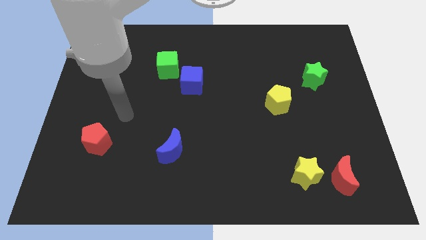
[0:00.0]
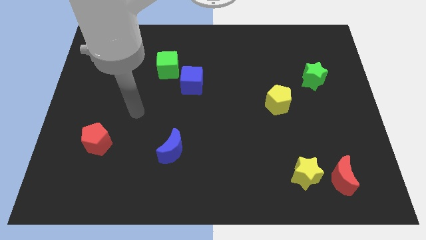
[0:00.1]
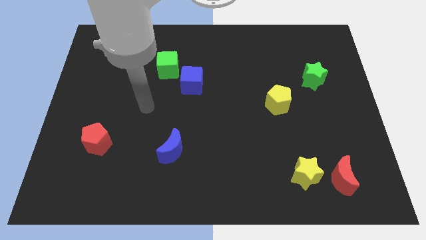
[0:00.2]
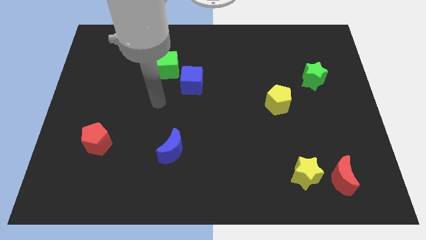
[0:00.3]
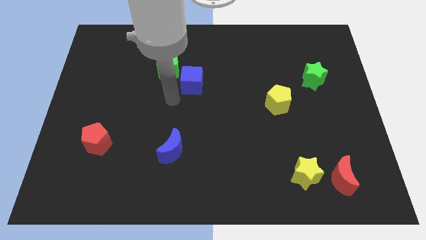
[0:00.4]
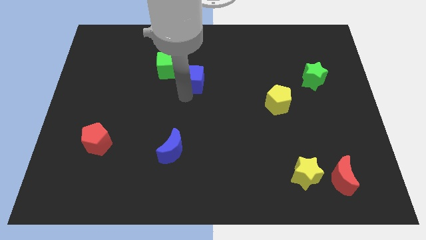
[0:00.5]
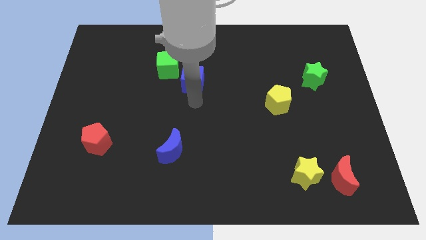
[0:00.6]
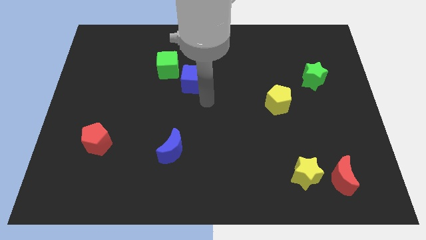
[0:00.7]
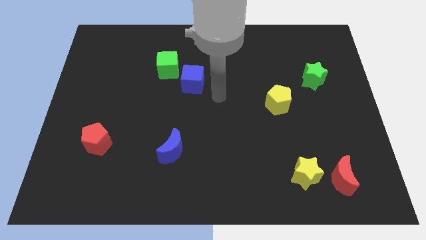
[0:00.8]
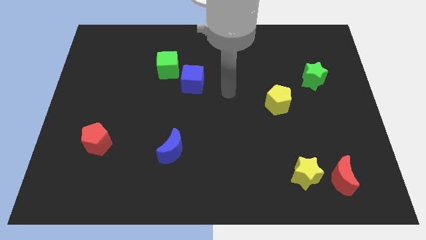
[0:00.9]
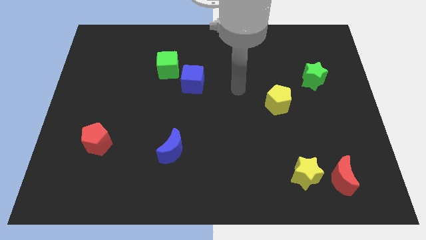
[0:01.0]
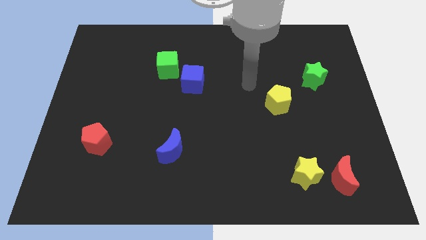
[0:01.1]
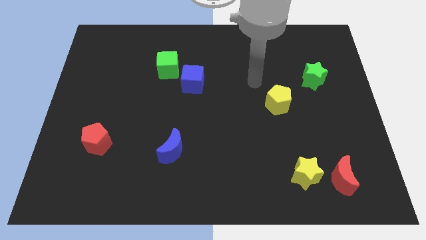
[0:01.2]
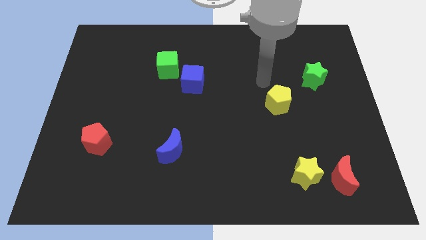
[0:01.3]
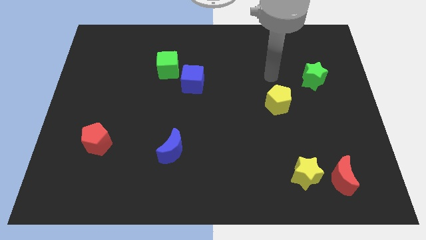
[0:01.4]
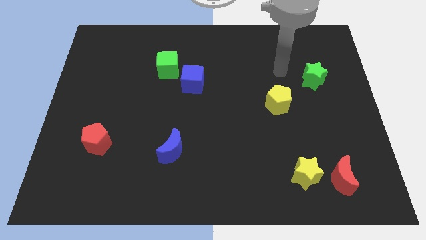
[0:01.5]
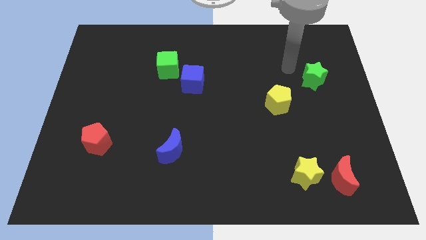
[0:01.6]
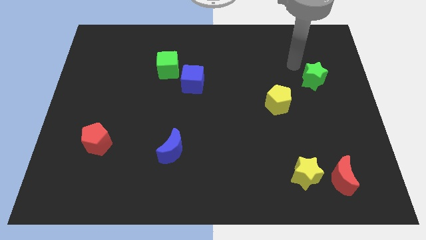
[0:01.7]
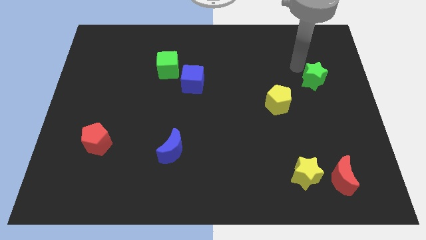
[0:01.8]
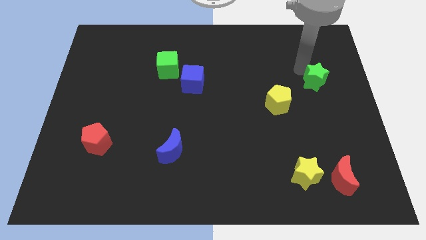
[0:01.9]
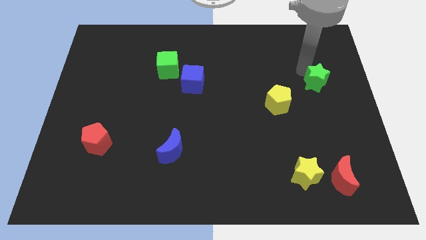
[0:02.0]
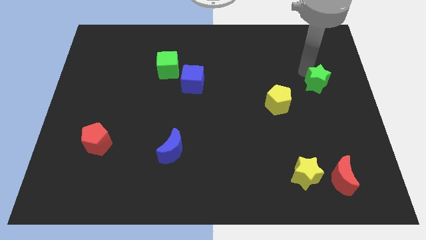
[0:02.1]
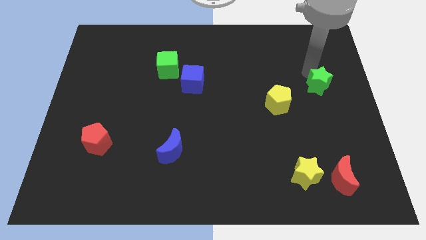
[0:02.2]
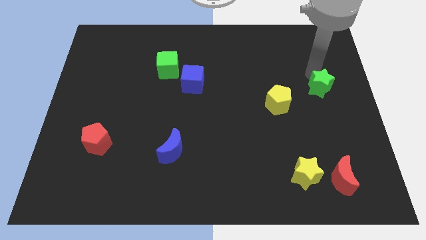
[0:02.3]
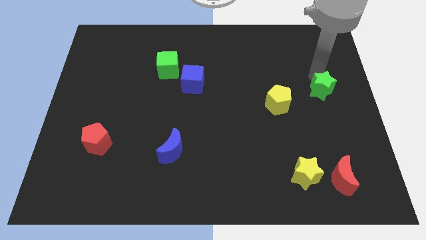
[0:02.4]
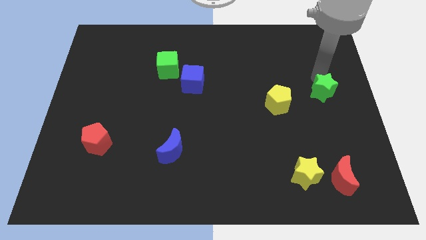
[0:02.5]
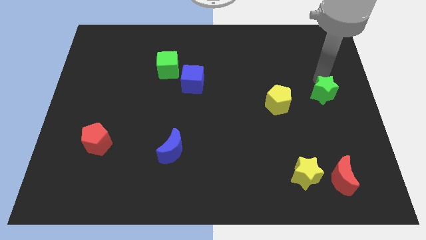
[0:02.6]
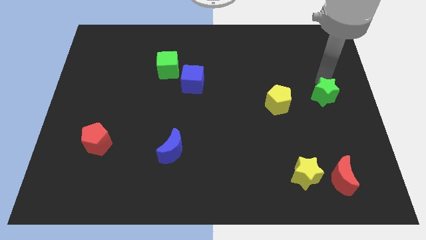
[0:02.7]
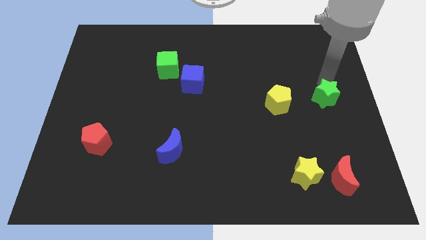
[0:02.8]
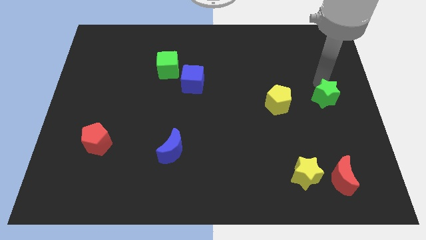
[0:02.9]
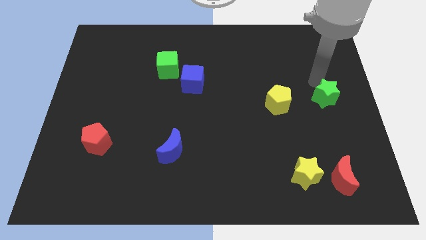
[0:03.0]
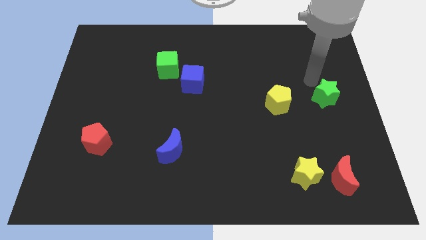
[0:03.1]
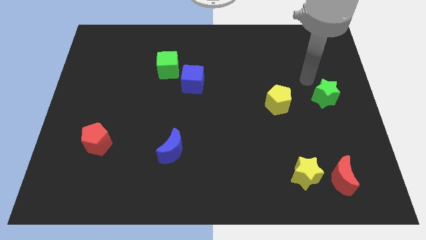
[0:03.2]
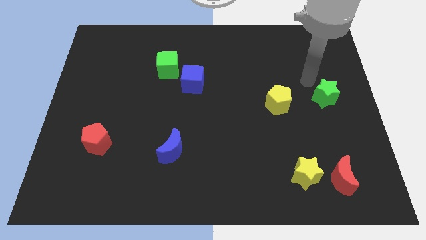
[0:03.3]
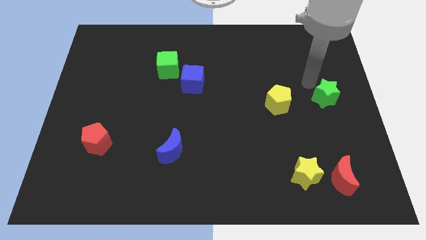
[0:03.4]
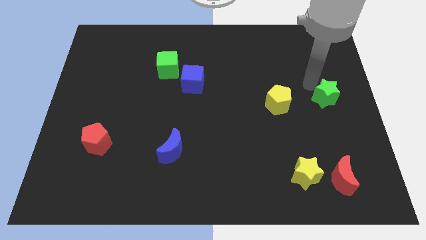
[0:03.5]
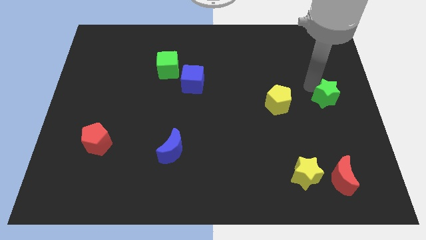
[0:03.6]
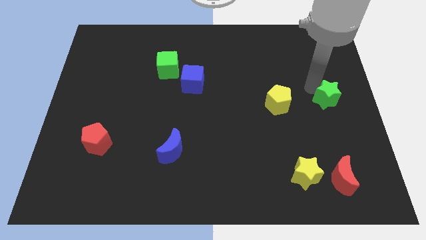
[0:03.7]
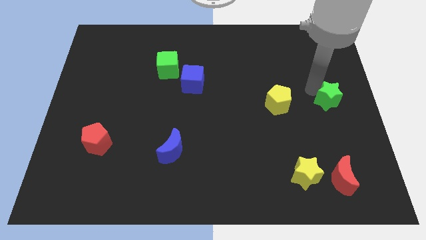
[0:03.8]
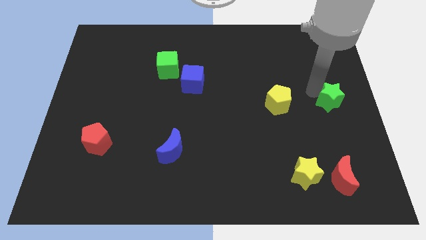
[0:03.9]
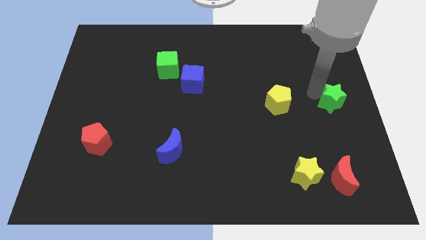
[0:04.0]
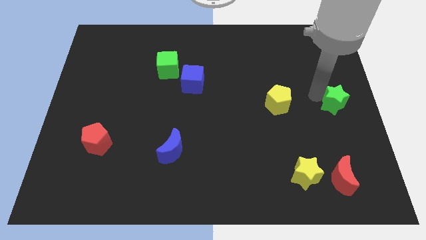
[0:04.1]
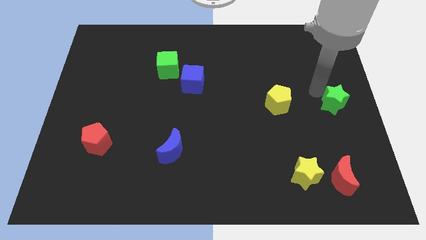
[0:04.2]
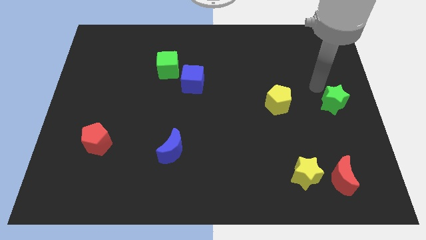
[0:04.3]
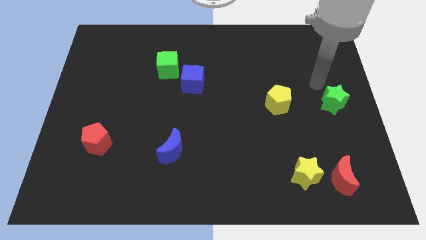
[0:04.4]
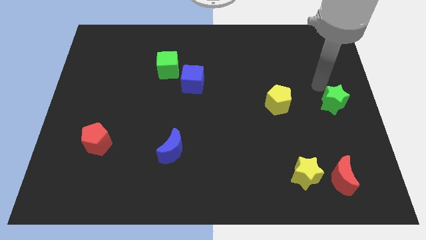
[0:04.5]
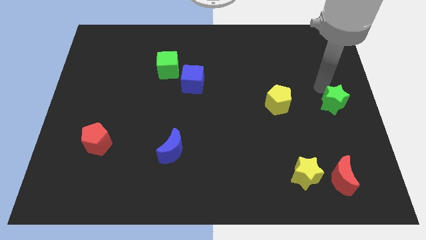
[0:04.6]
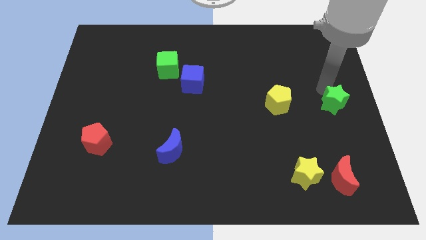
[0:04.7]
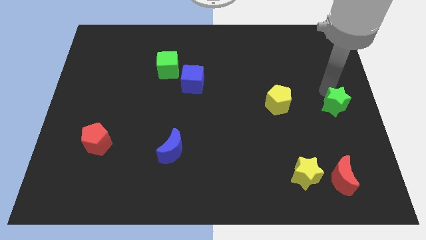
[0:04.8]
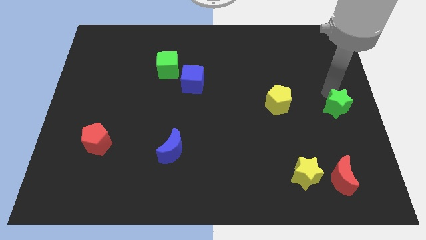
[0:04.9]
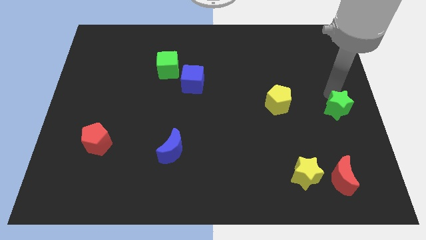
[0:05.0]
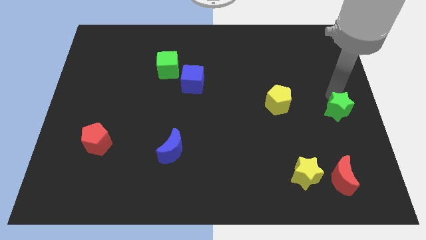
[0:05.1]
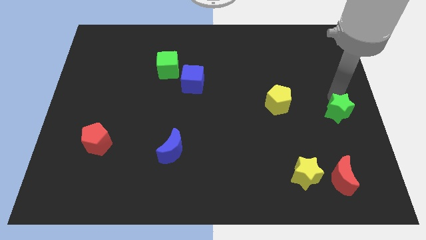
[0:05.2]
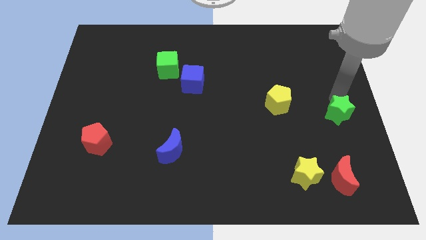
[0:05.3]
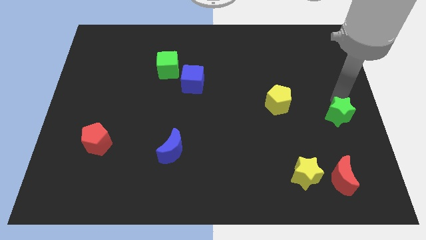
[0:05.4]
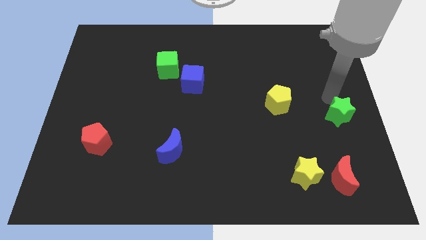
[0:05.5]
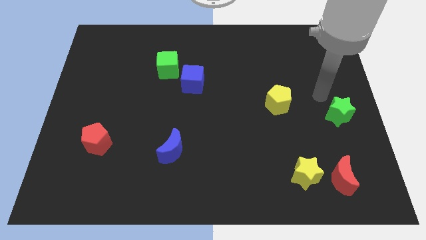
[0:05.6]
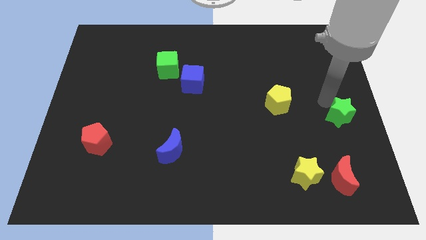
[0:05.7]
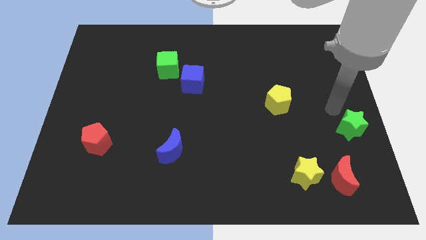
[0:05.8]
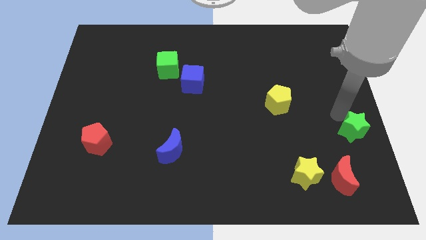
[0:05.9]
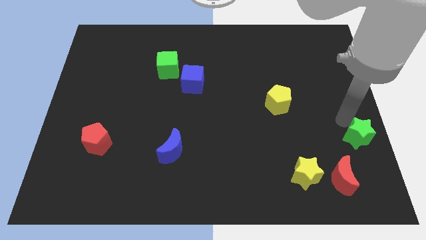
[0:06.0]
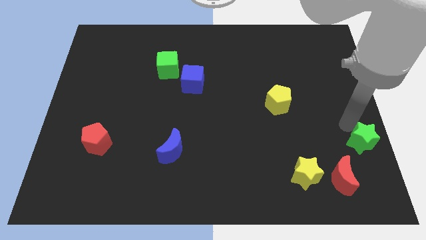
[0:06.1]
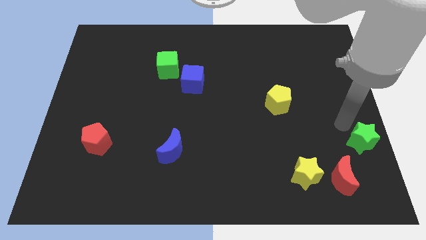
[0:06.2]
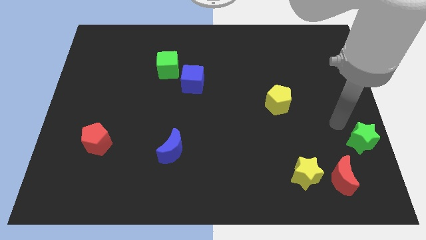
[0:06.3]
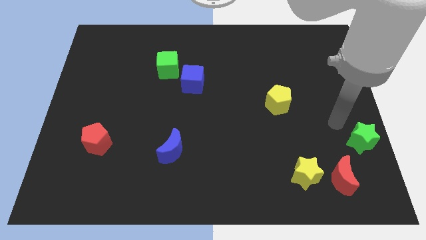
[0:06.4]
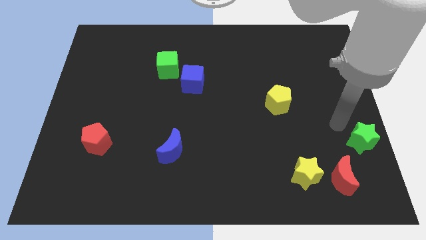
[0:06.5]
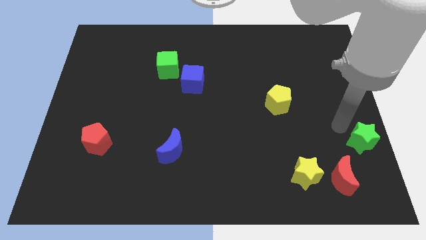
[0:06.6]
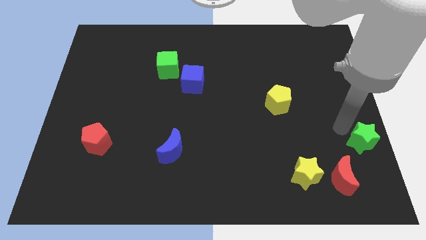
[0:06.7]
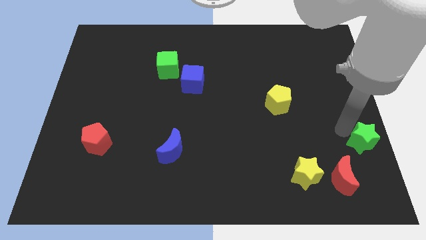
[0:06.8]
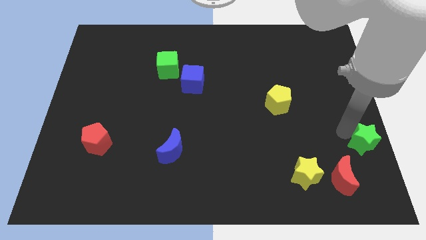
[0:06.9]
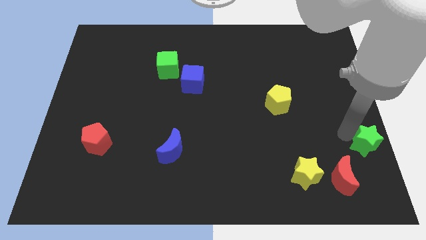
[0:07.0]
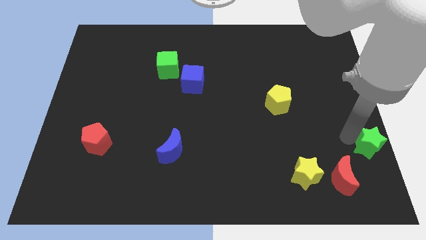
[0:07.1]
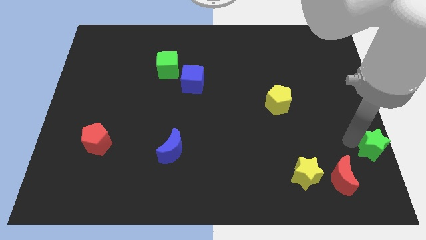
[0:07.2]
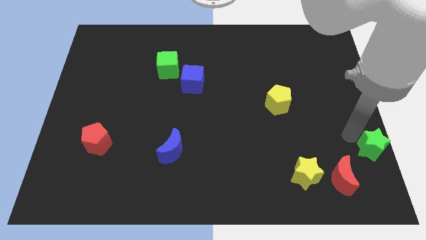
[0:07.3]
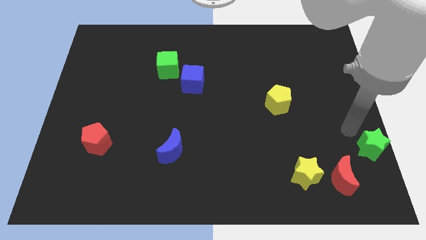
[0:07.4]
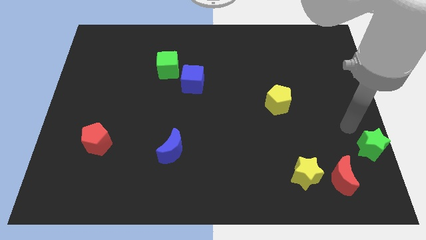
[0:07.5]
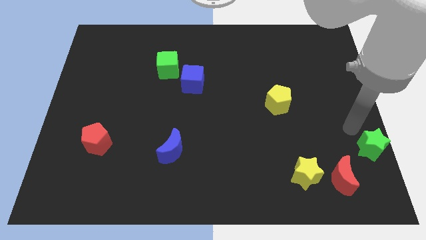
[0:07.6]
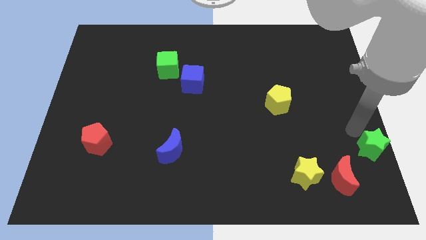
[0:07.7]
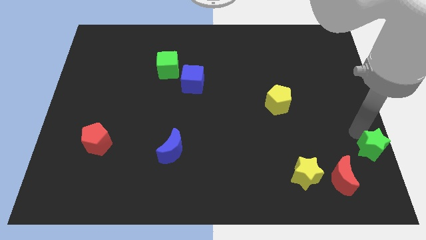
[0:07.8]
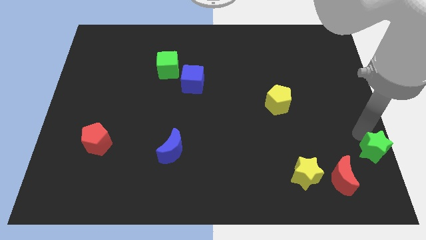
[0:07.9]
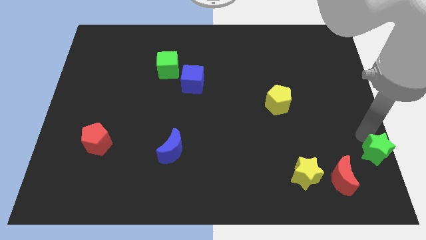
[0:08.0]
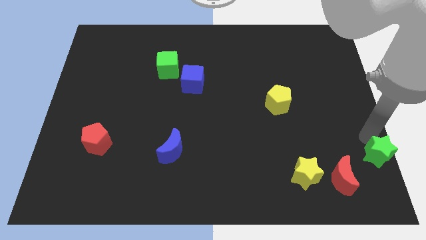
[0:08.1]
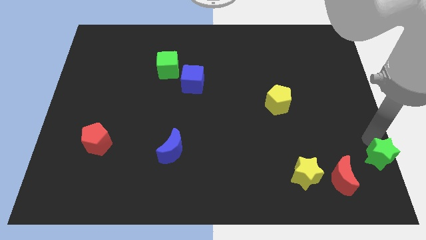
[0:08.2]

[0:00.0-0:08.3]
slide the green star to the bottom right of the board
